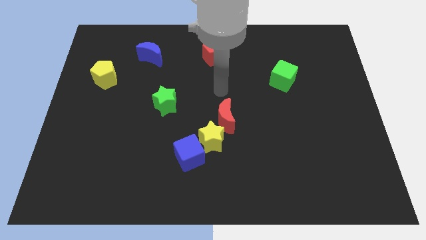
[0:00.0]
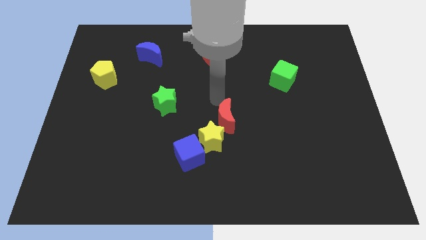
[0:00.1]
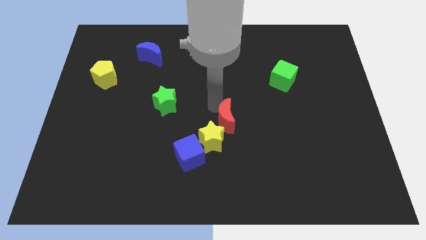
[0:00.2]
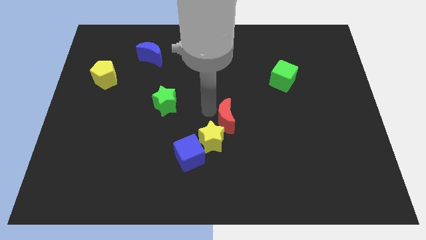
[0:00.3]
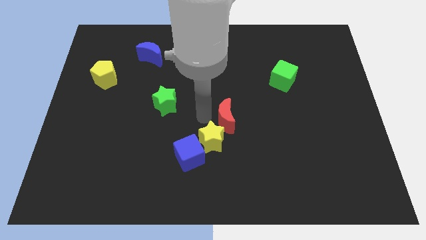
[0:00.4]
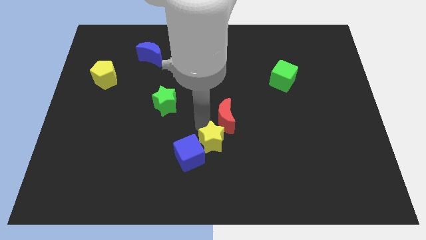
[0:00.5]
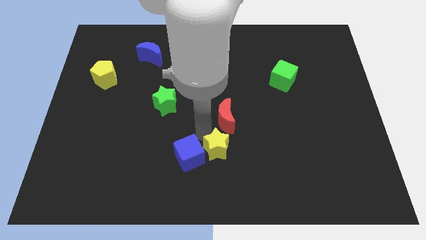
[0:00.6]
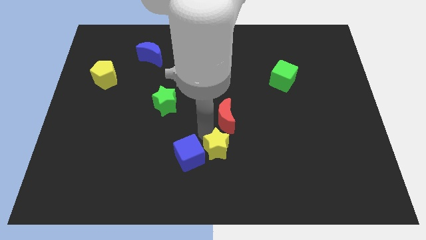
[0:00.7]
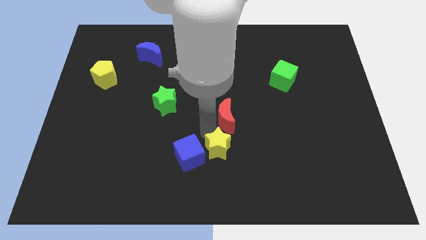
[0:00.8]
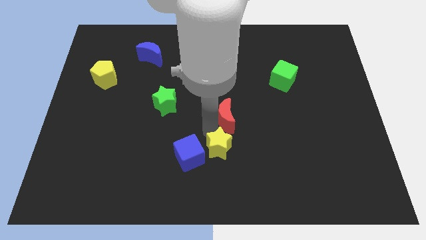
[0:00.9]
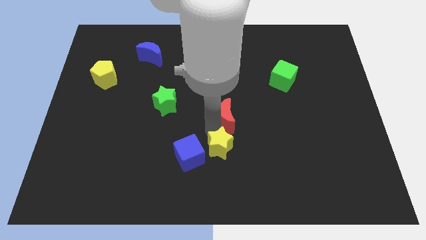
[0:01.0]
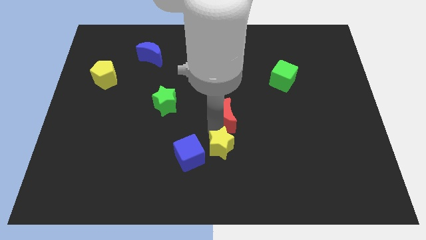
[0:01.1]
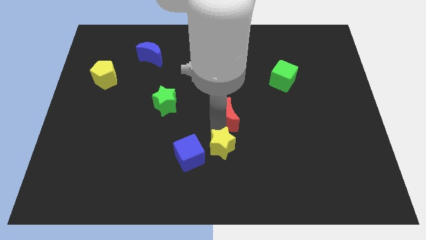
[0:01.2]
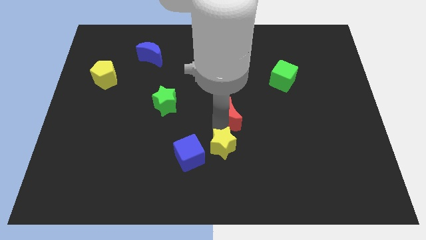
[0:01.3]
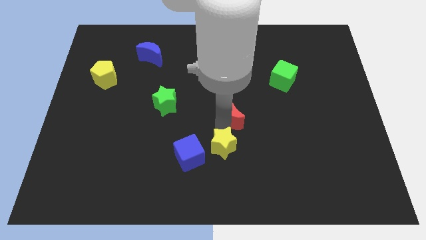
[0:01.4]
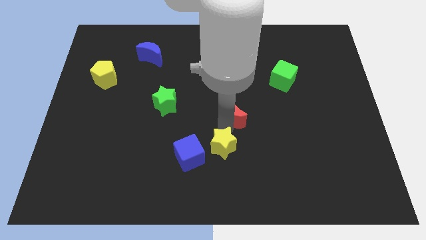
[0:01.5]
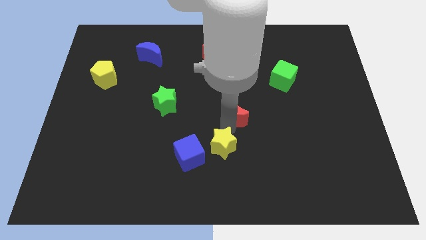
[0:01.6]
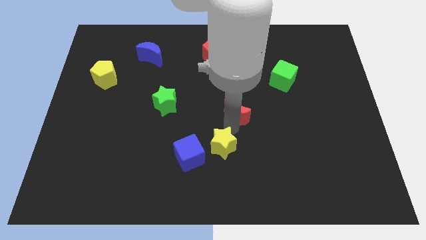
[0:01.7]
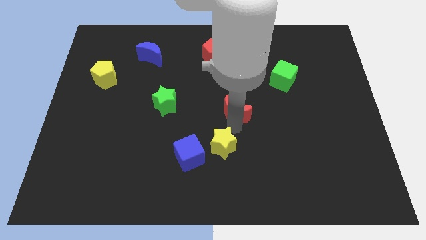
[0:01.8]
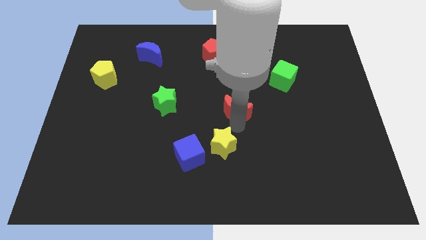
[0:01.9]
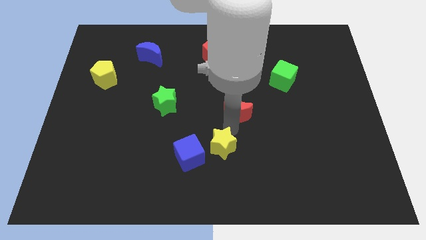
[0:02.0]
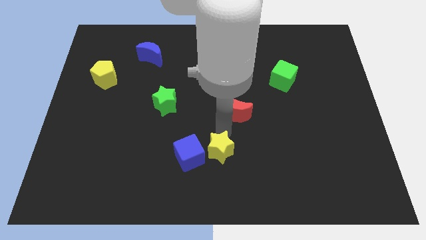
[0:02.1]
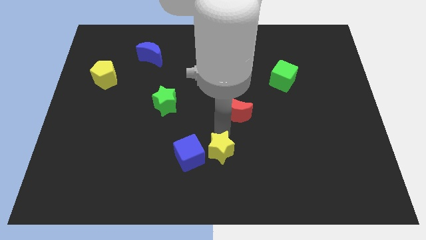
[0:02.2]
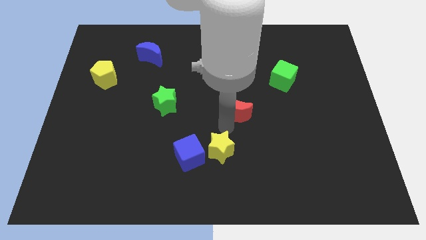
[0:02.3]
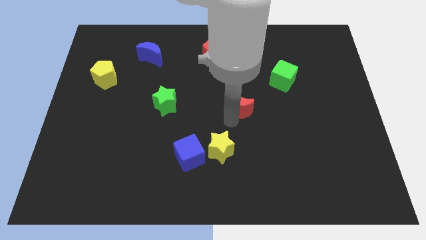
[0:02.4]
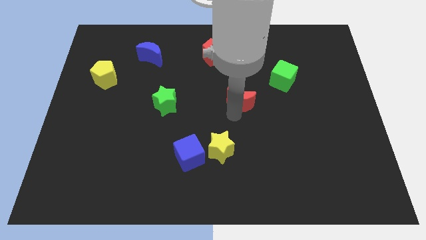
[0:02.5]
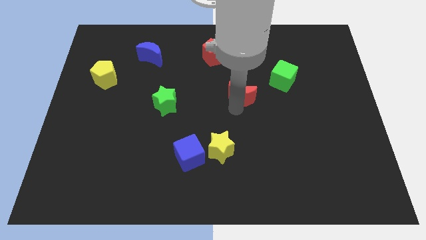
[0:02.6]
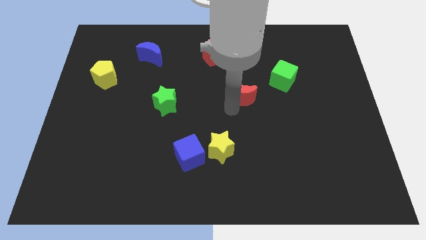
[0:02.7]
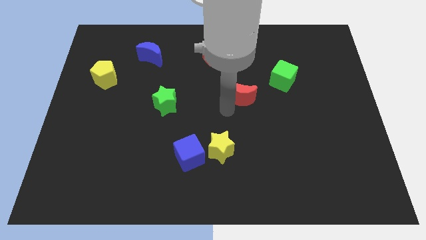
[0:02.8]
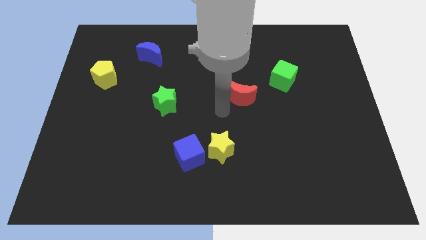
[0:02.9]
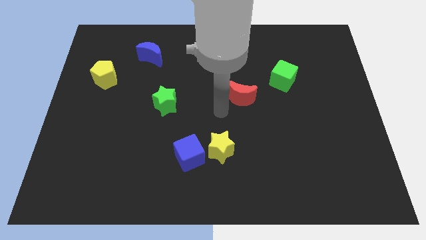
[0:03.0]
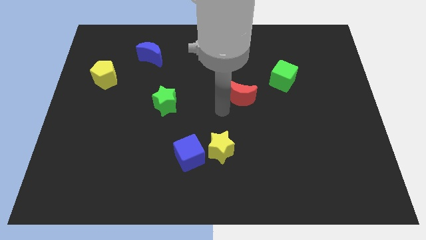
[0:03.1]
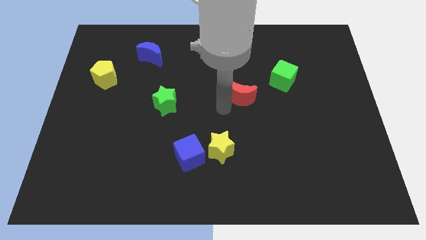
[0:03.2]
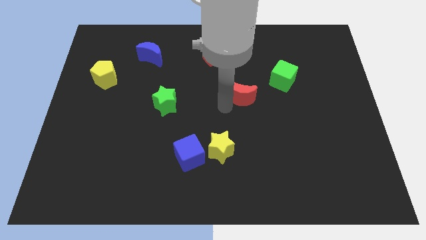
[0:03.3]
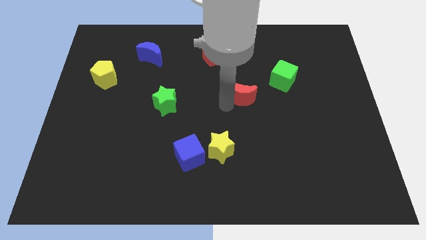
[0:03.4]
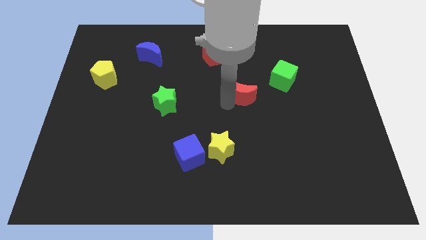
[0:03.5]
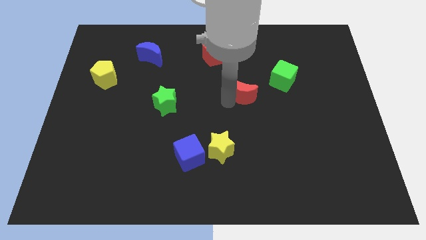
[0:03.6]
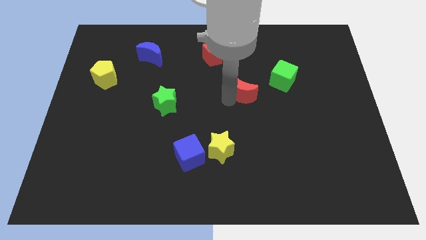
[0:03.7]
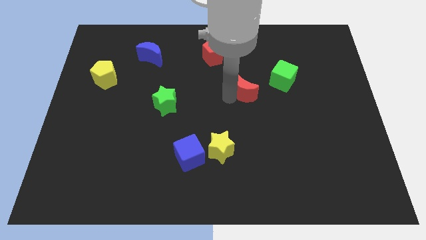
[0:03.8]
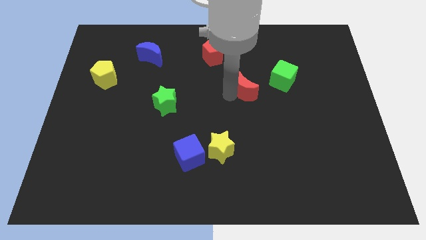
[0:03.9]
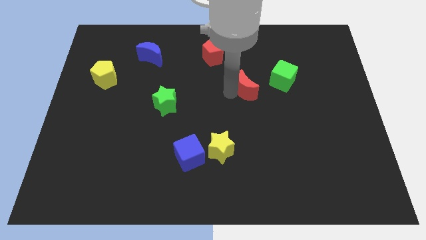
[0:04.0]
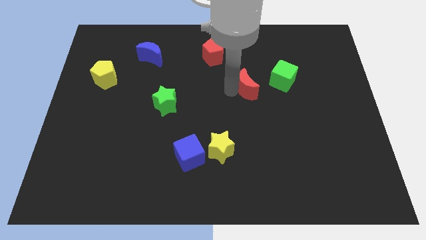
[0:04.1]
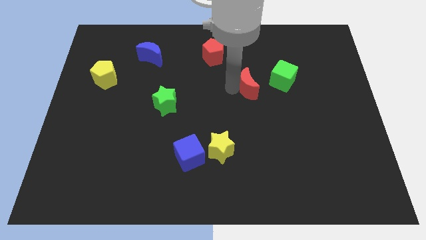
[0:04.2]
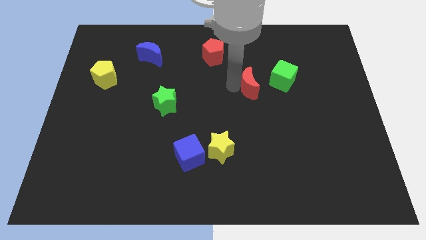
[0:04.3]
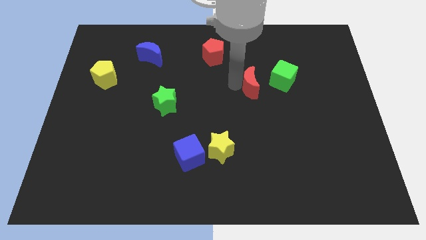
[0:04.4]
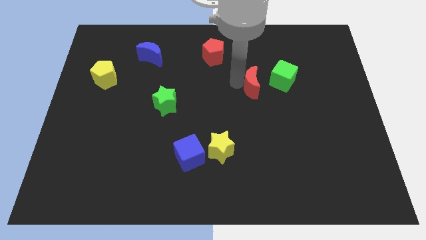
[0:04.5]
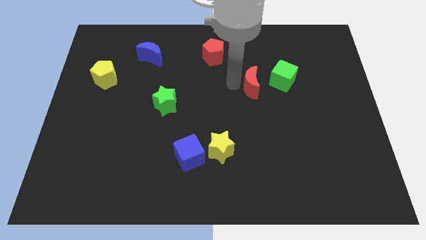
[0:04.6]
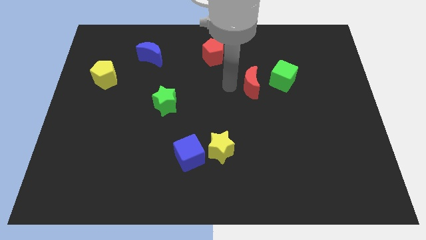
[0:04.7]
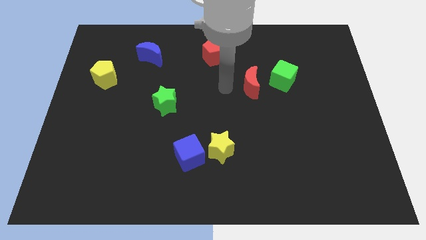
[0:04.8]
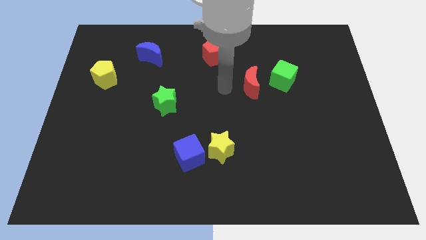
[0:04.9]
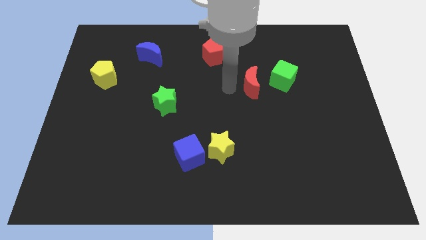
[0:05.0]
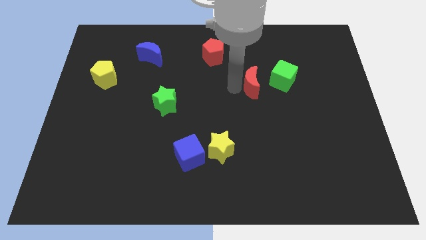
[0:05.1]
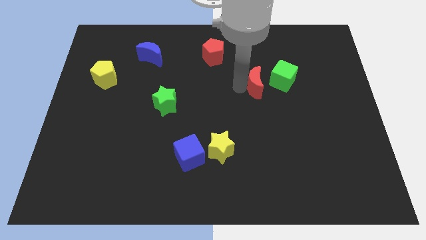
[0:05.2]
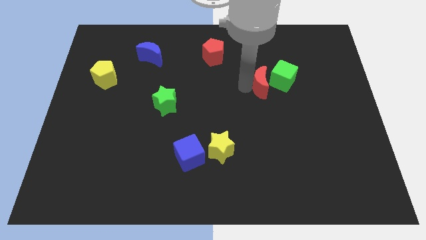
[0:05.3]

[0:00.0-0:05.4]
push the red moon towards the green cube

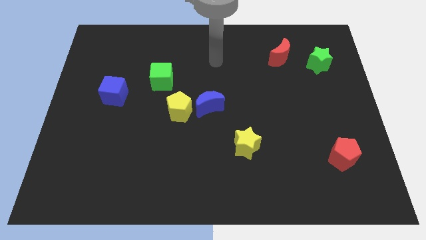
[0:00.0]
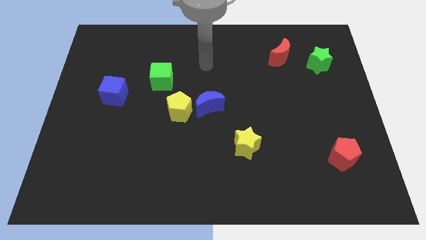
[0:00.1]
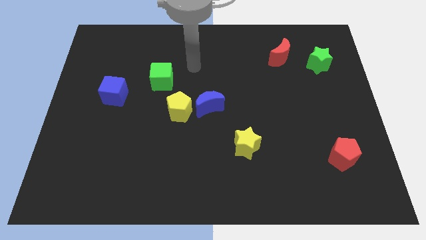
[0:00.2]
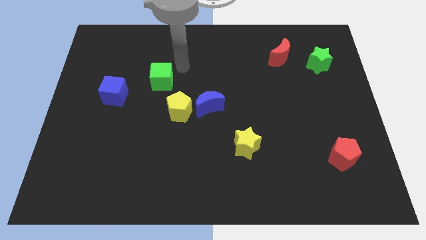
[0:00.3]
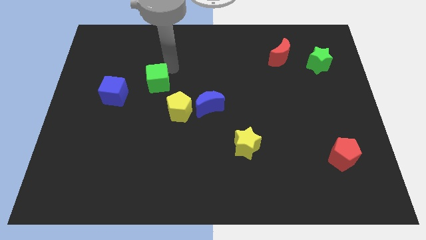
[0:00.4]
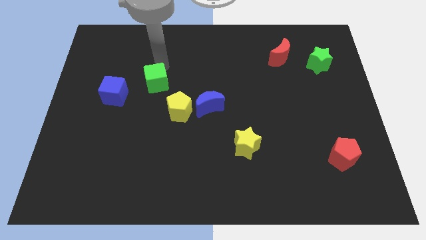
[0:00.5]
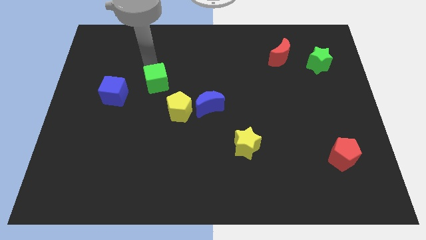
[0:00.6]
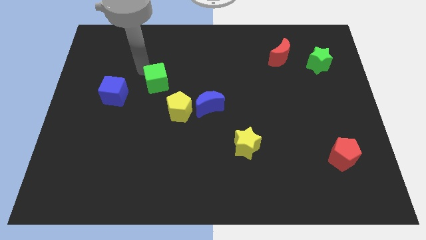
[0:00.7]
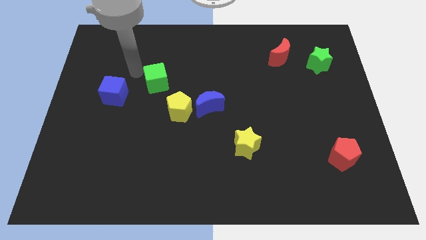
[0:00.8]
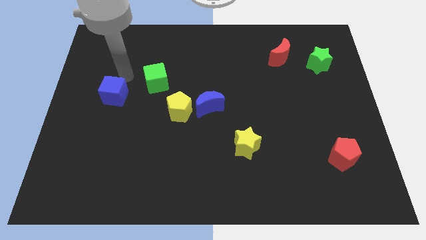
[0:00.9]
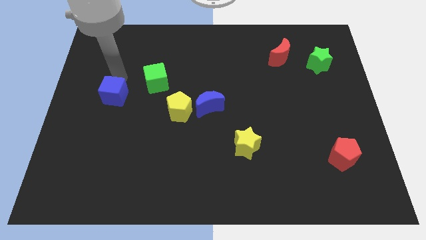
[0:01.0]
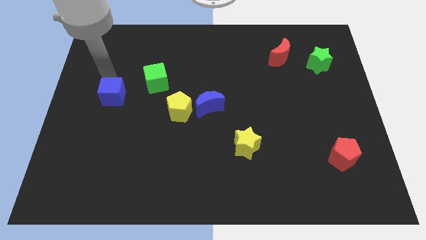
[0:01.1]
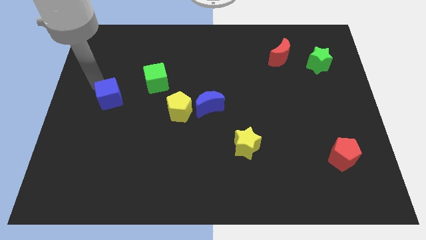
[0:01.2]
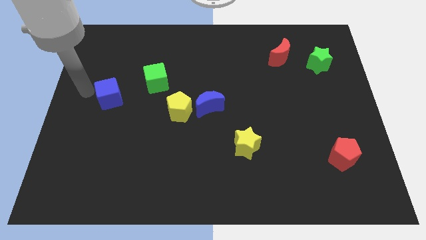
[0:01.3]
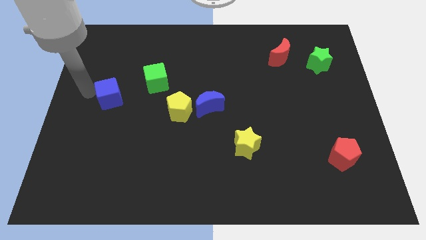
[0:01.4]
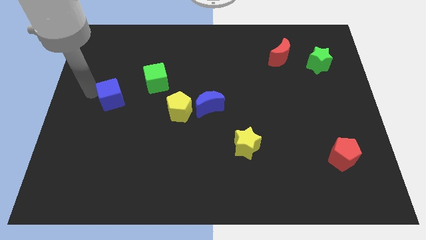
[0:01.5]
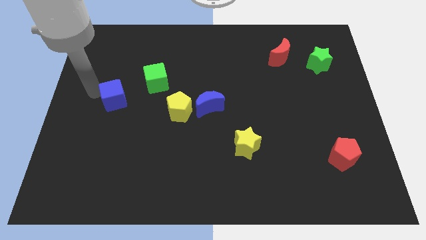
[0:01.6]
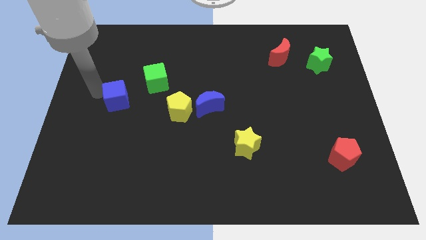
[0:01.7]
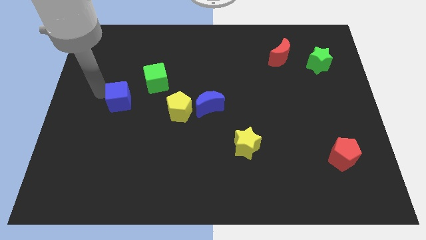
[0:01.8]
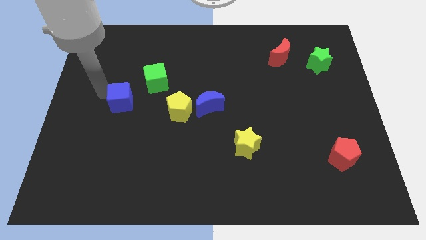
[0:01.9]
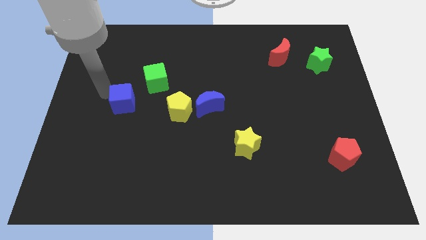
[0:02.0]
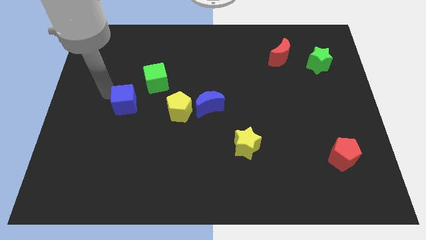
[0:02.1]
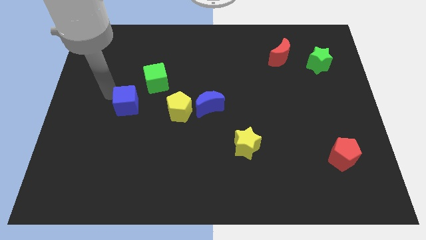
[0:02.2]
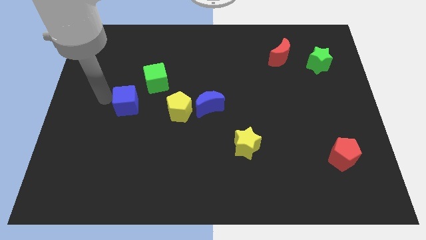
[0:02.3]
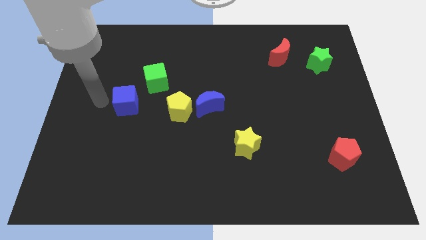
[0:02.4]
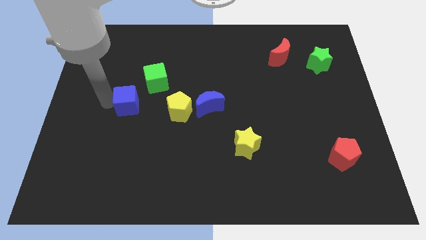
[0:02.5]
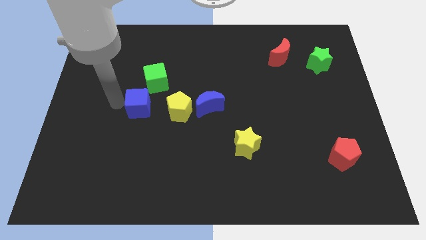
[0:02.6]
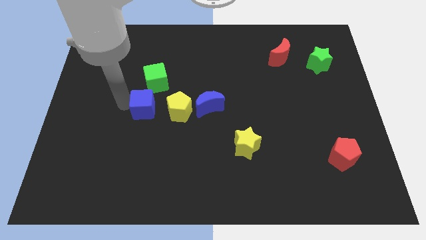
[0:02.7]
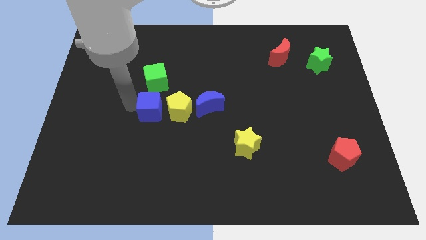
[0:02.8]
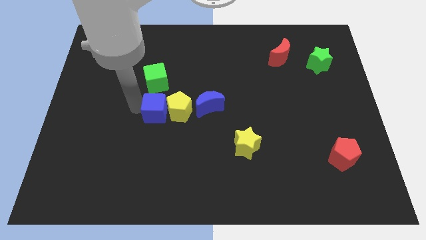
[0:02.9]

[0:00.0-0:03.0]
push the blue cube towards the yellow pentagon
